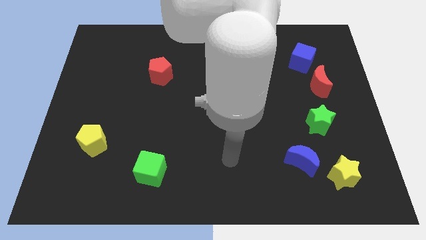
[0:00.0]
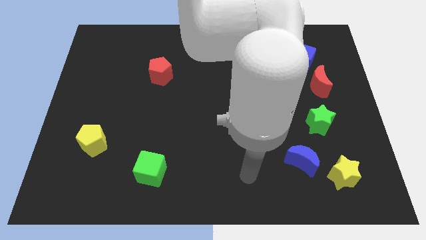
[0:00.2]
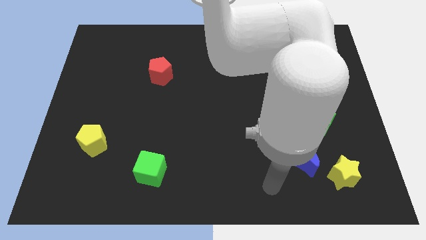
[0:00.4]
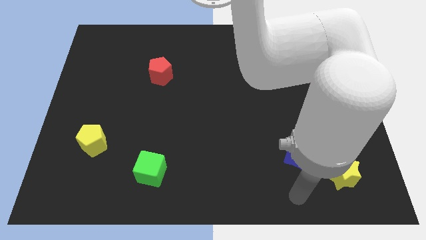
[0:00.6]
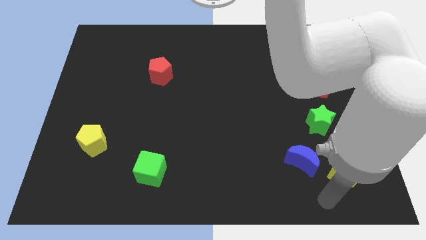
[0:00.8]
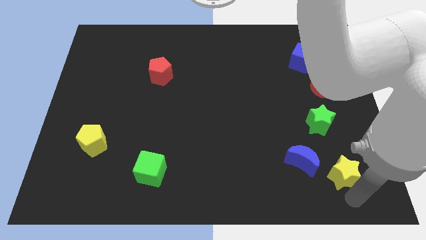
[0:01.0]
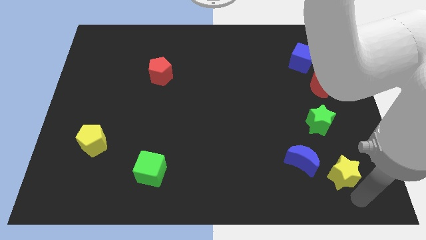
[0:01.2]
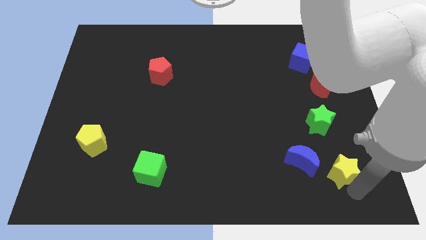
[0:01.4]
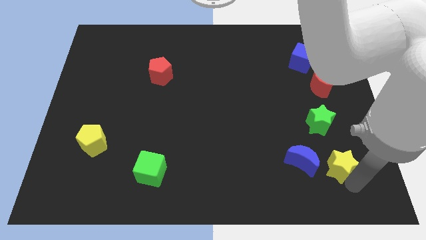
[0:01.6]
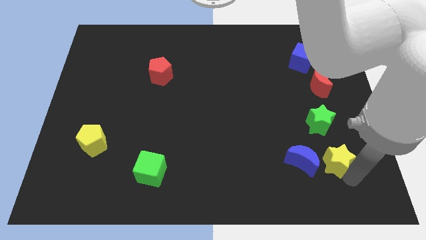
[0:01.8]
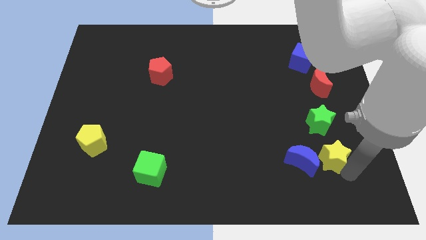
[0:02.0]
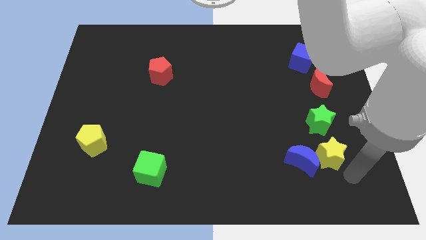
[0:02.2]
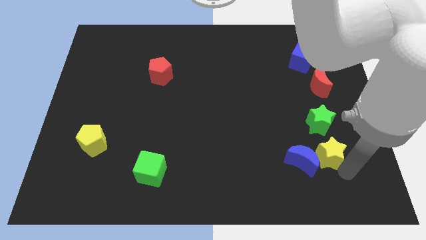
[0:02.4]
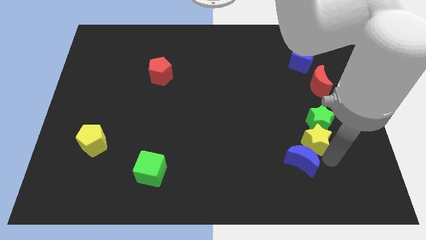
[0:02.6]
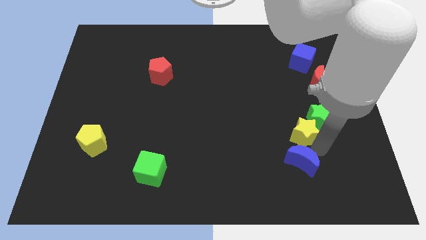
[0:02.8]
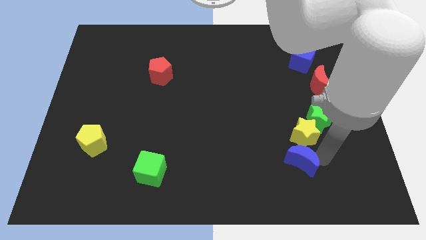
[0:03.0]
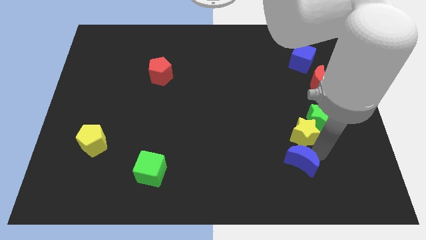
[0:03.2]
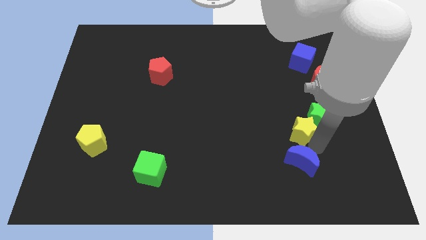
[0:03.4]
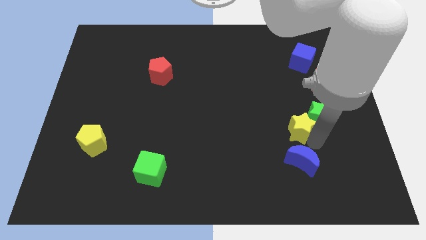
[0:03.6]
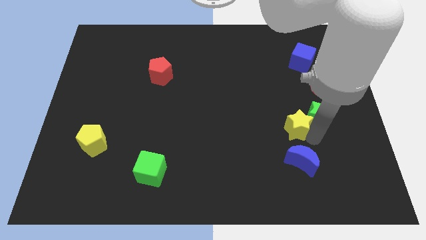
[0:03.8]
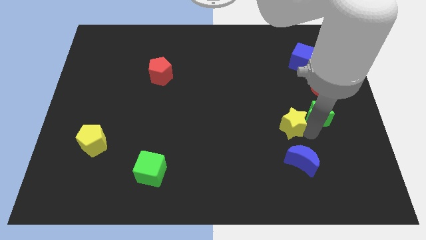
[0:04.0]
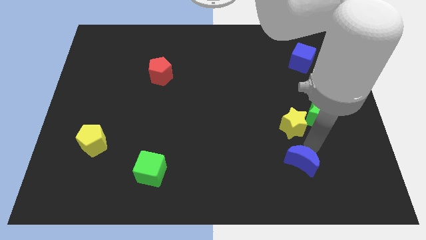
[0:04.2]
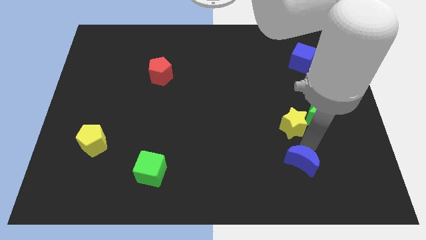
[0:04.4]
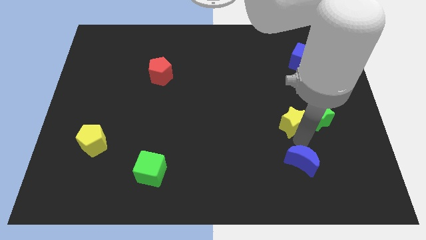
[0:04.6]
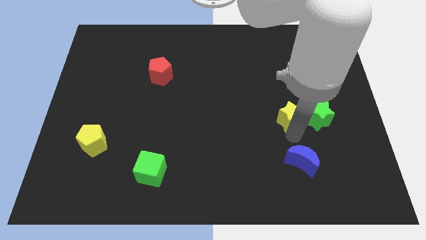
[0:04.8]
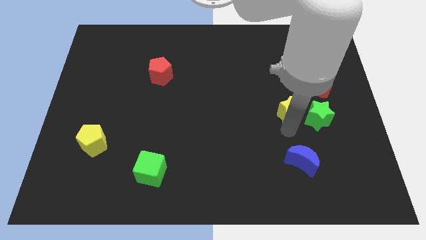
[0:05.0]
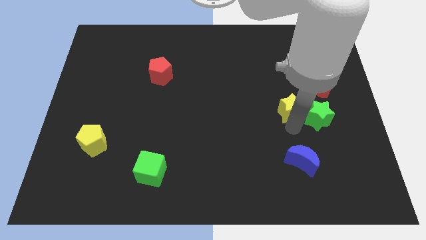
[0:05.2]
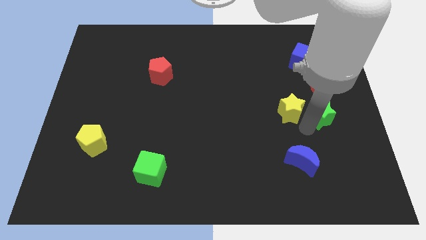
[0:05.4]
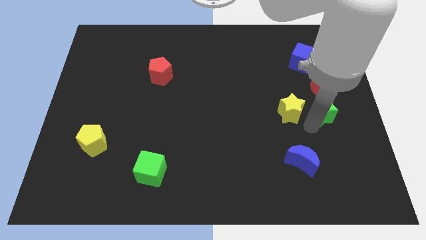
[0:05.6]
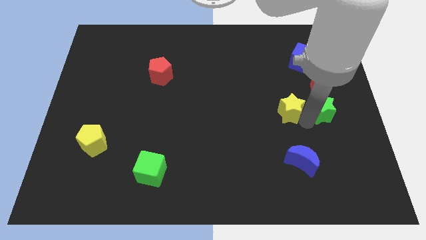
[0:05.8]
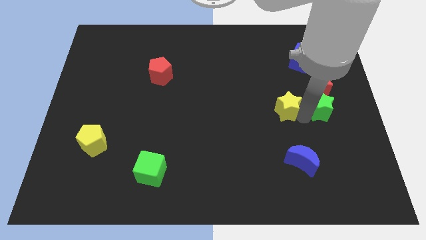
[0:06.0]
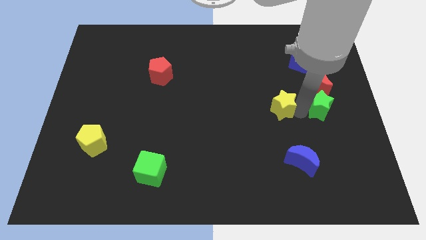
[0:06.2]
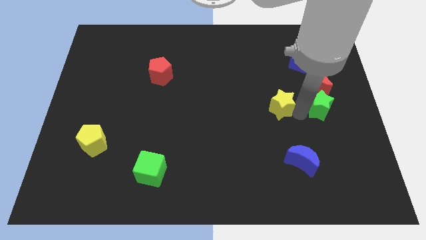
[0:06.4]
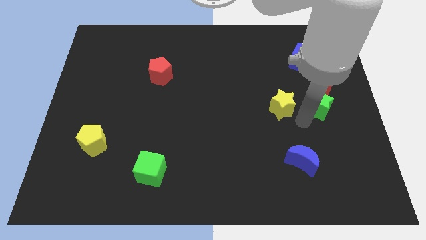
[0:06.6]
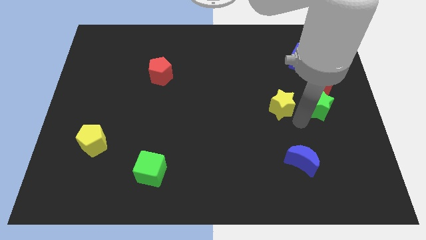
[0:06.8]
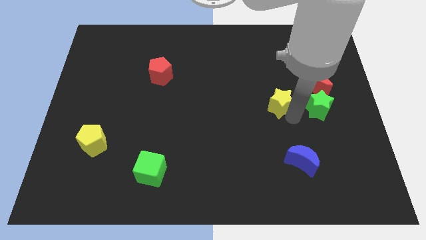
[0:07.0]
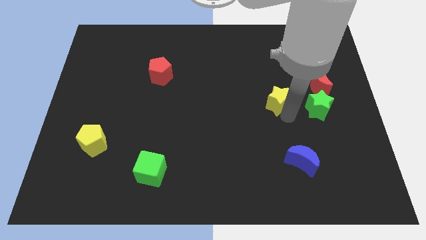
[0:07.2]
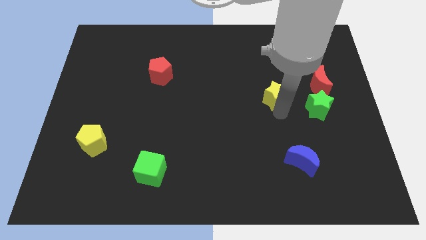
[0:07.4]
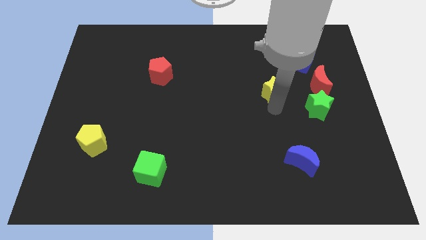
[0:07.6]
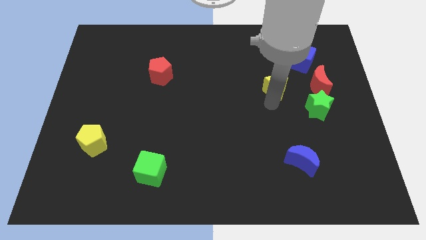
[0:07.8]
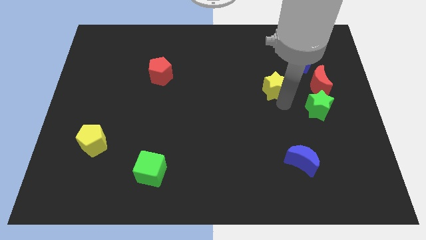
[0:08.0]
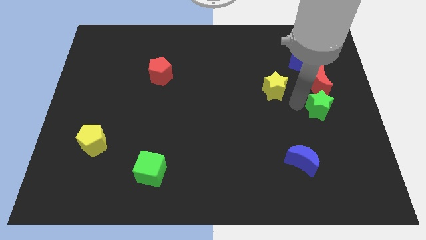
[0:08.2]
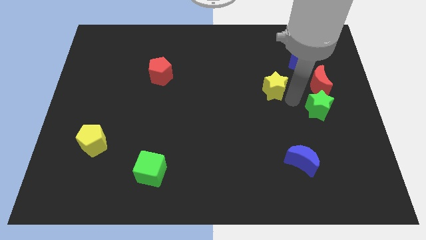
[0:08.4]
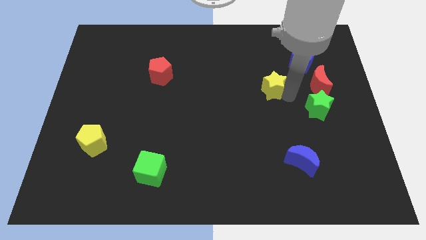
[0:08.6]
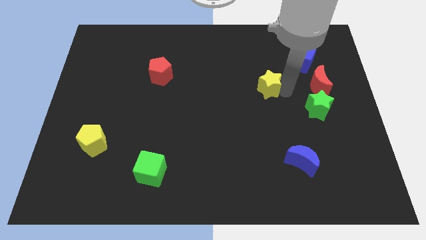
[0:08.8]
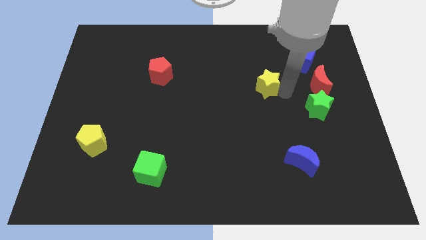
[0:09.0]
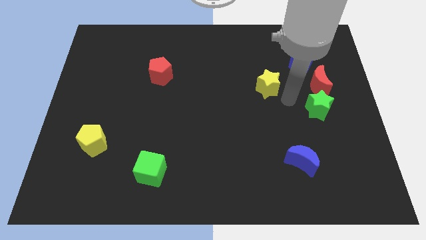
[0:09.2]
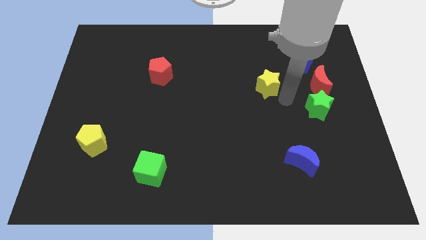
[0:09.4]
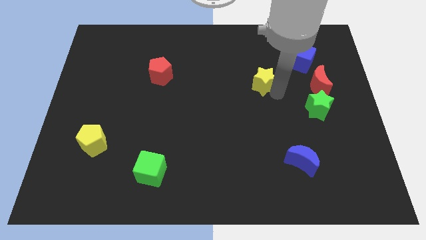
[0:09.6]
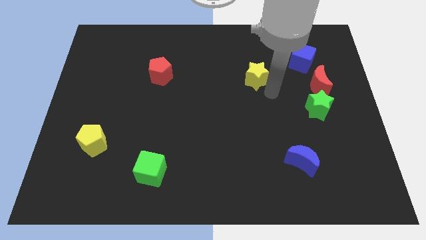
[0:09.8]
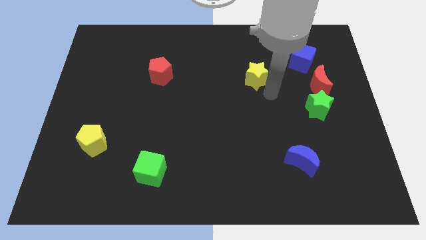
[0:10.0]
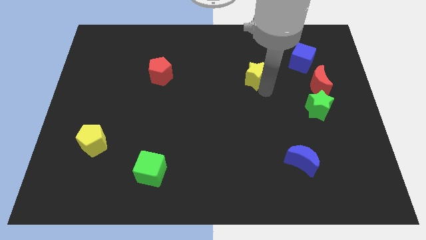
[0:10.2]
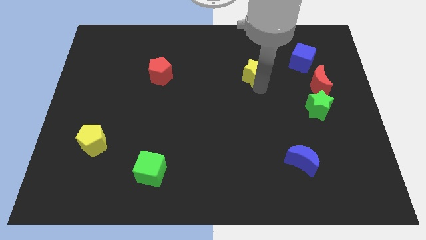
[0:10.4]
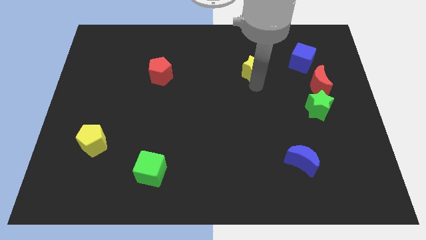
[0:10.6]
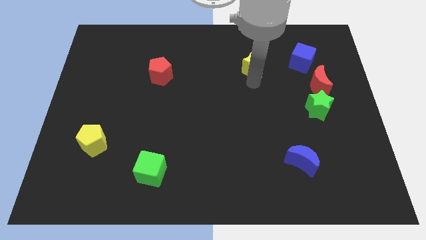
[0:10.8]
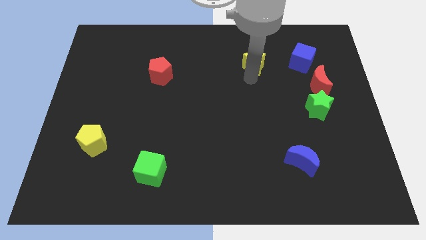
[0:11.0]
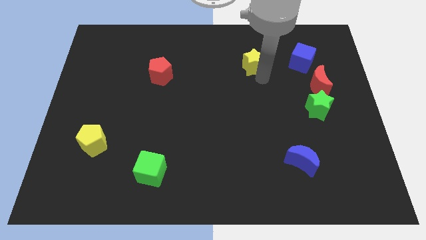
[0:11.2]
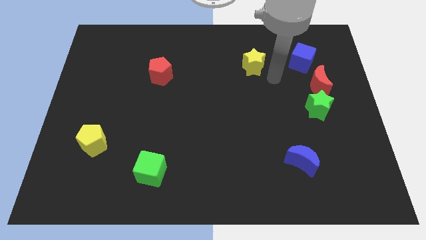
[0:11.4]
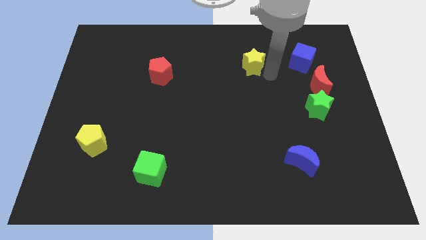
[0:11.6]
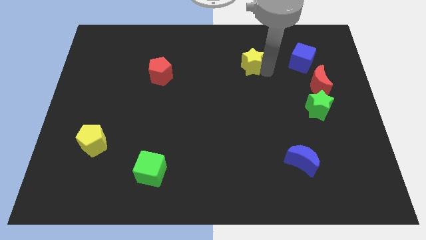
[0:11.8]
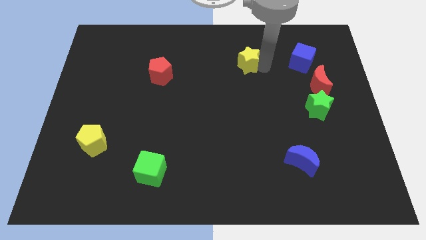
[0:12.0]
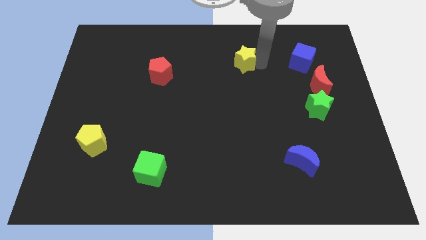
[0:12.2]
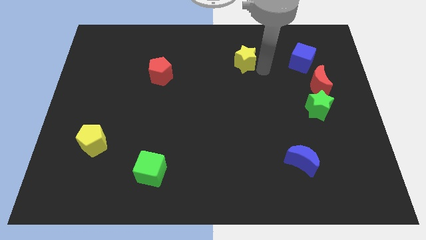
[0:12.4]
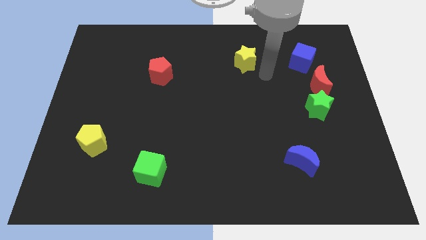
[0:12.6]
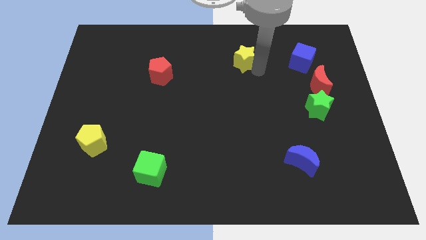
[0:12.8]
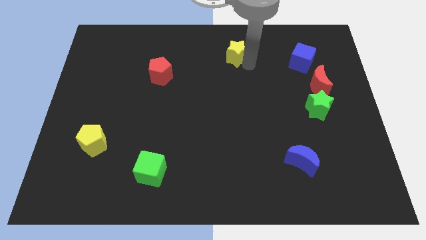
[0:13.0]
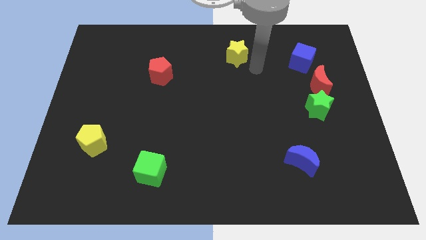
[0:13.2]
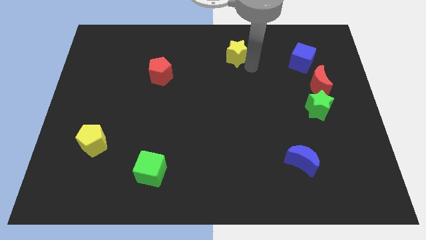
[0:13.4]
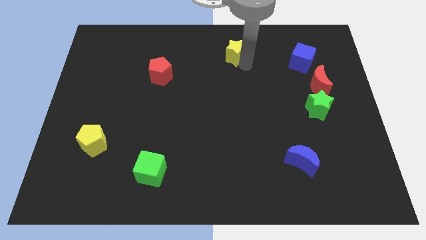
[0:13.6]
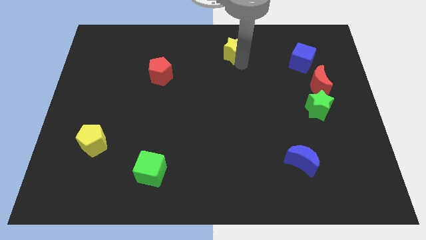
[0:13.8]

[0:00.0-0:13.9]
put the yellow star to the top

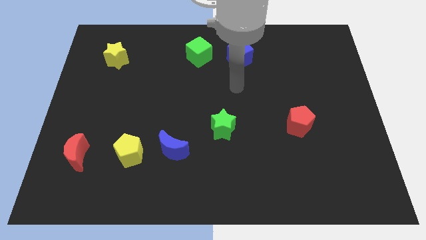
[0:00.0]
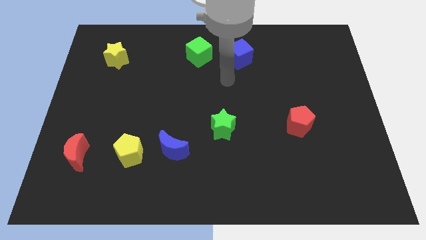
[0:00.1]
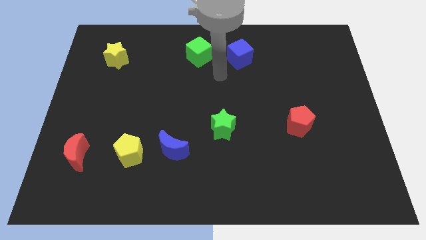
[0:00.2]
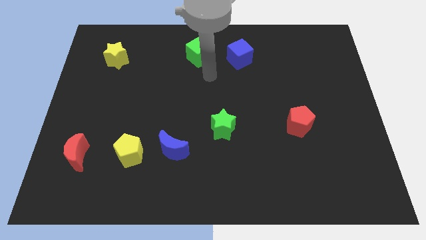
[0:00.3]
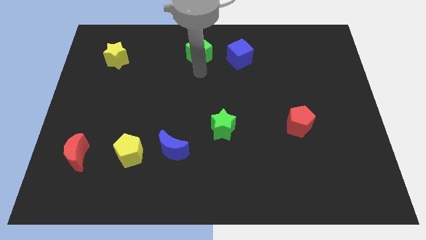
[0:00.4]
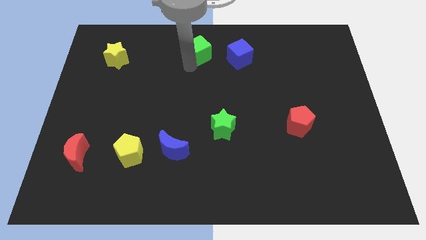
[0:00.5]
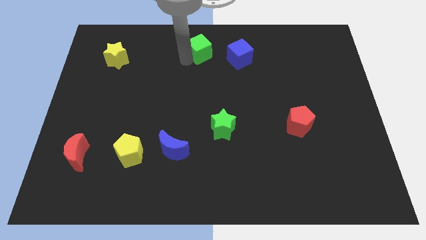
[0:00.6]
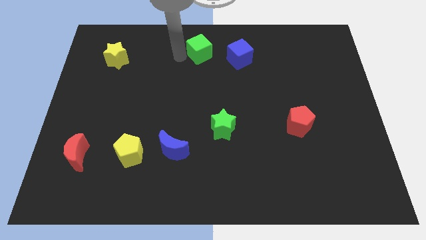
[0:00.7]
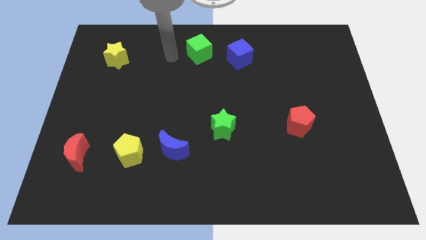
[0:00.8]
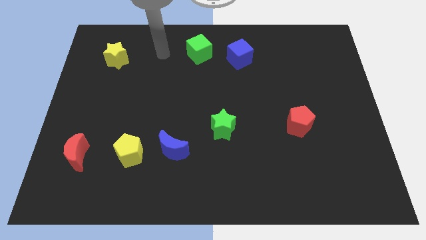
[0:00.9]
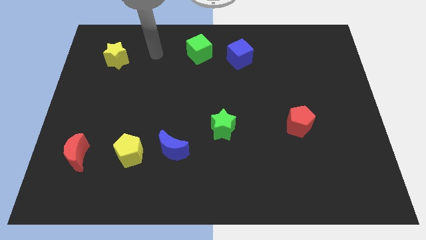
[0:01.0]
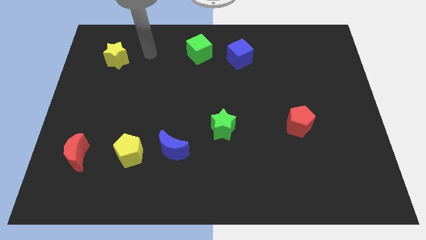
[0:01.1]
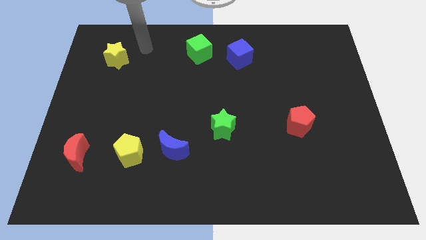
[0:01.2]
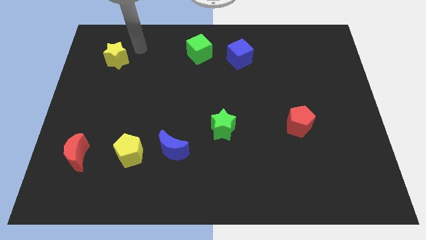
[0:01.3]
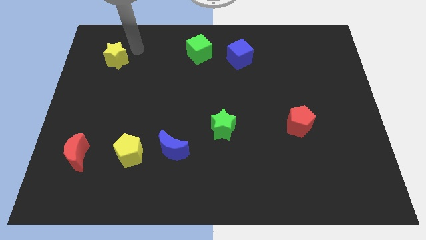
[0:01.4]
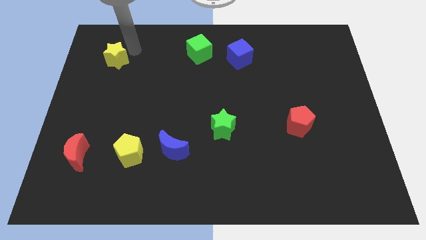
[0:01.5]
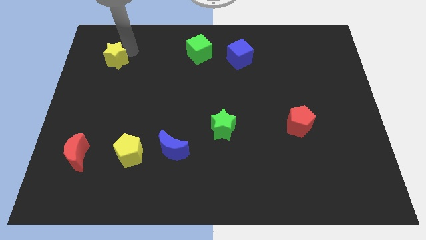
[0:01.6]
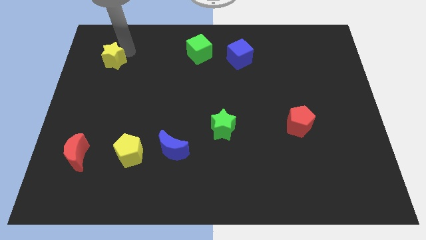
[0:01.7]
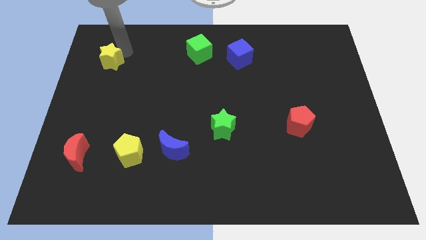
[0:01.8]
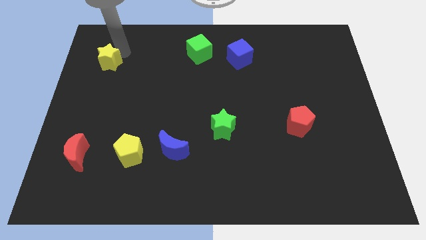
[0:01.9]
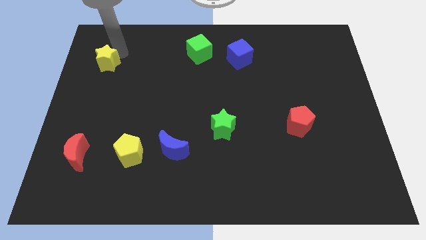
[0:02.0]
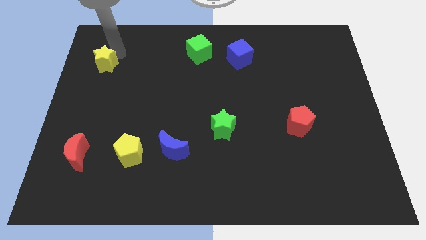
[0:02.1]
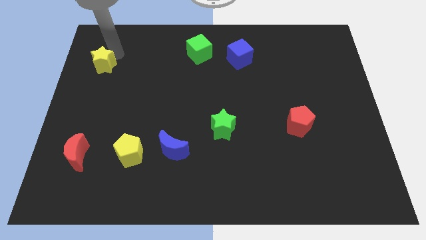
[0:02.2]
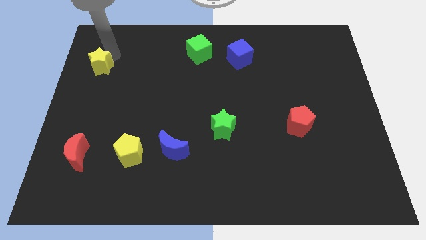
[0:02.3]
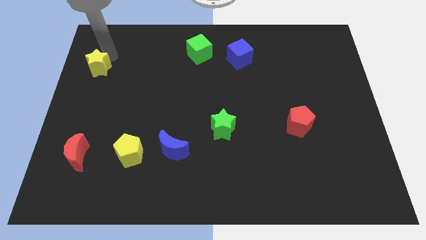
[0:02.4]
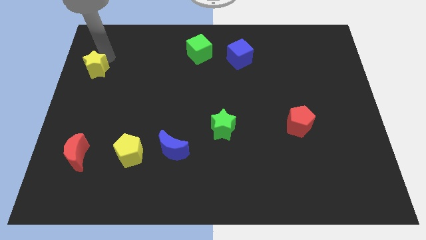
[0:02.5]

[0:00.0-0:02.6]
slide the yellow star to the left side
